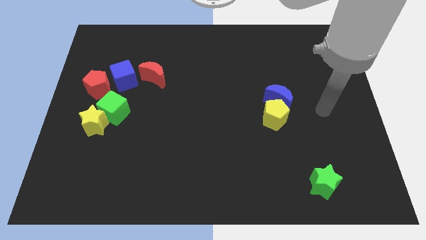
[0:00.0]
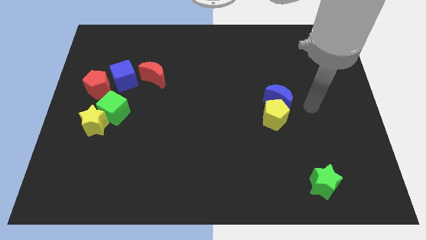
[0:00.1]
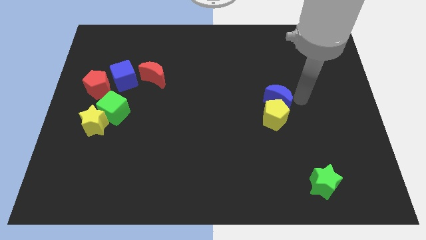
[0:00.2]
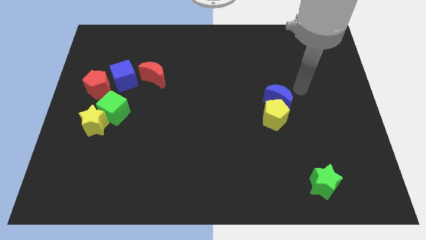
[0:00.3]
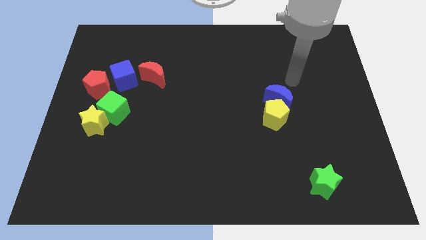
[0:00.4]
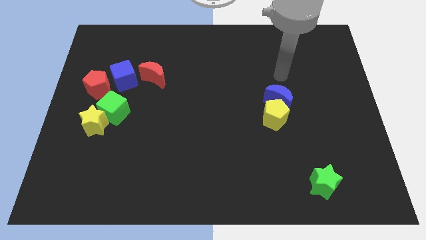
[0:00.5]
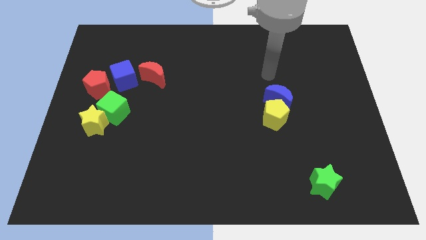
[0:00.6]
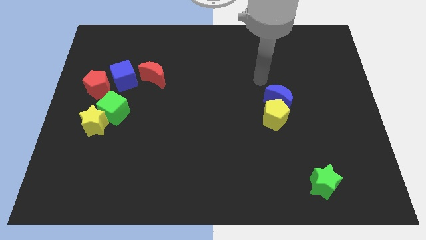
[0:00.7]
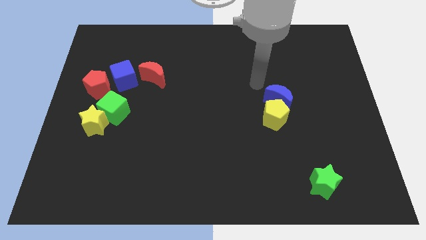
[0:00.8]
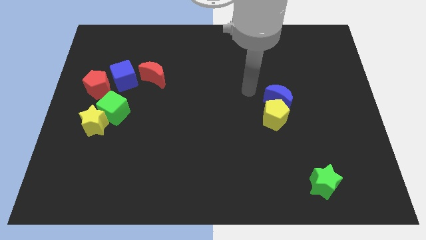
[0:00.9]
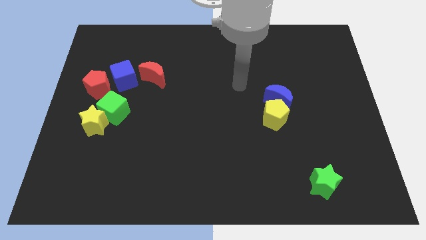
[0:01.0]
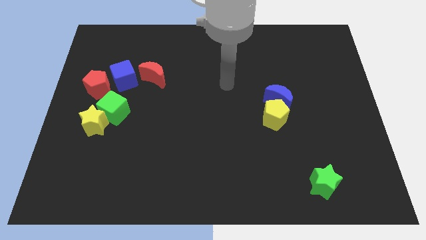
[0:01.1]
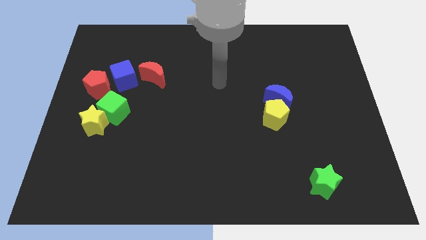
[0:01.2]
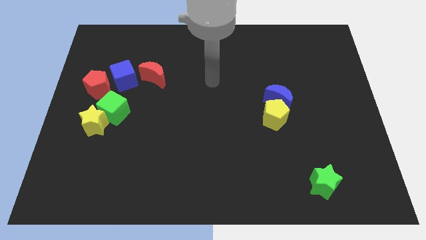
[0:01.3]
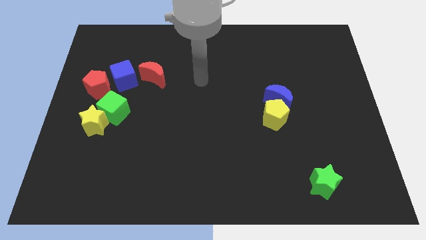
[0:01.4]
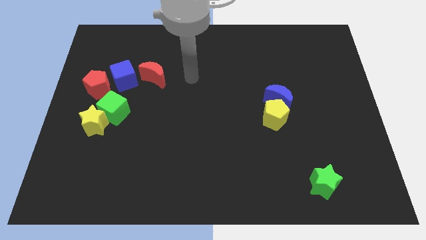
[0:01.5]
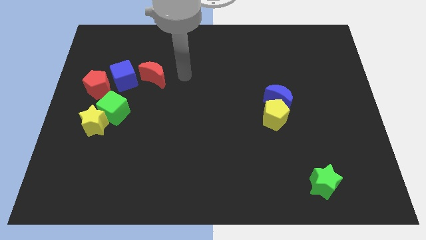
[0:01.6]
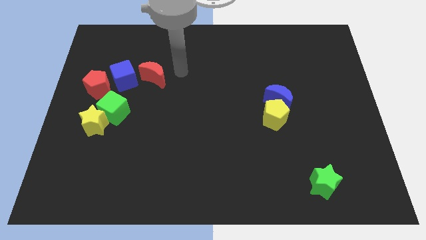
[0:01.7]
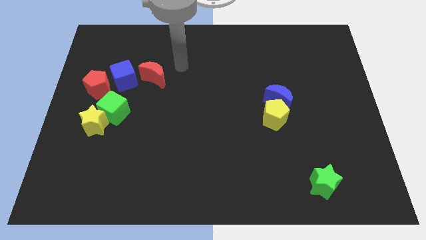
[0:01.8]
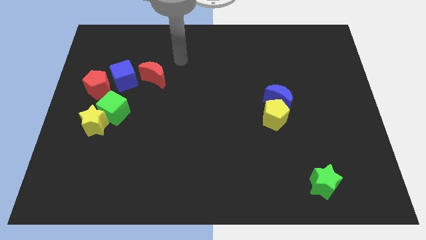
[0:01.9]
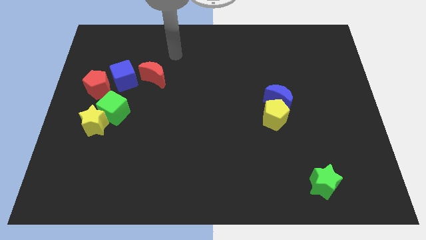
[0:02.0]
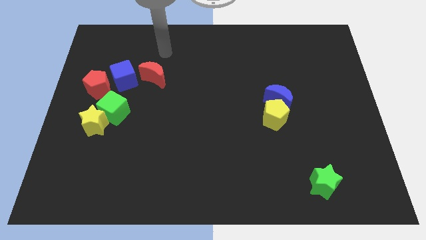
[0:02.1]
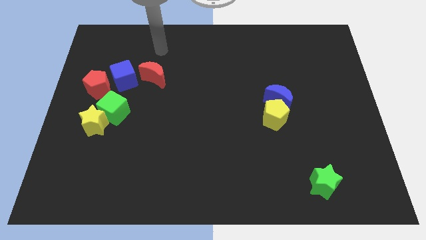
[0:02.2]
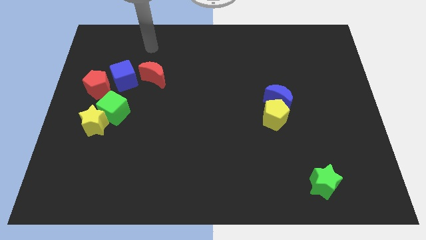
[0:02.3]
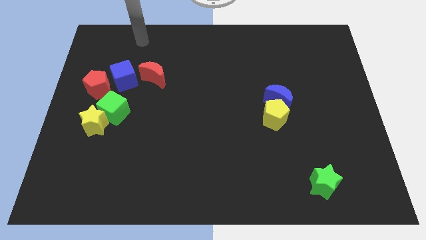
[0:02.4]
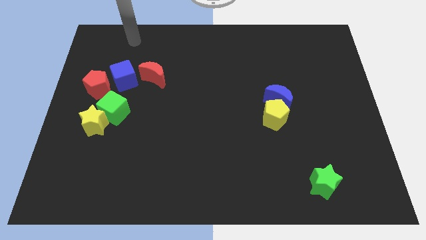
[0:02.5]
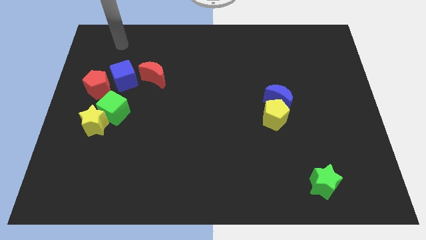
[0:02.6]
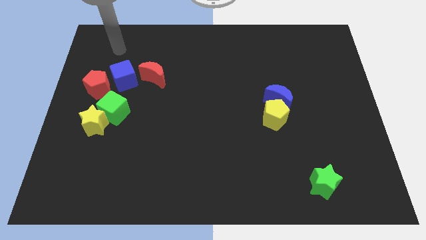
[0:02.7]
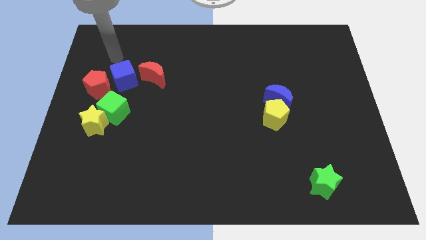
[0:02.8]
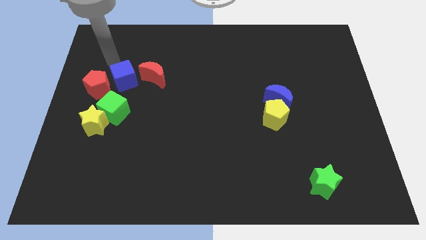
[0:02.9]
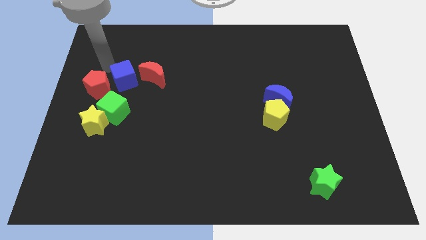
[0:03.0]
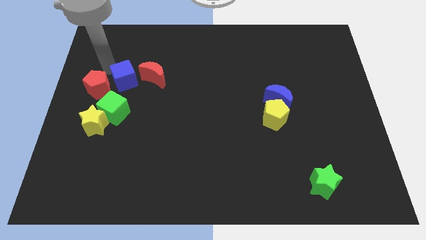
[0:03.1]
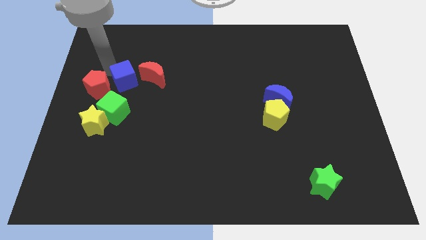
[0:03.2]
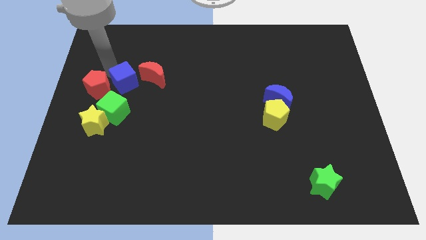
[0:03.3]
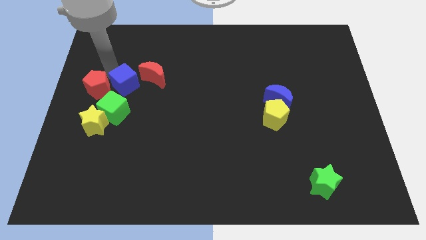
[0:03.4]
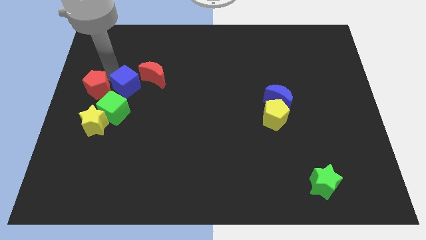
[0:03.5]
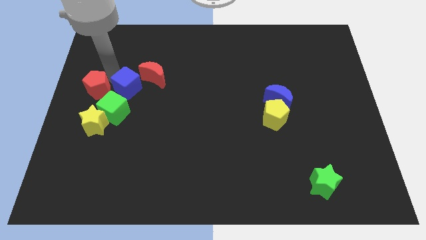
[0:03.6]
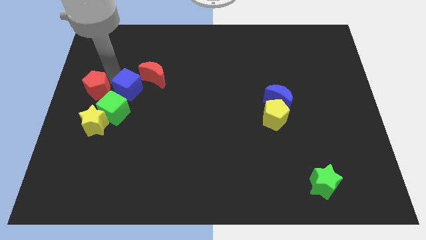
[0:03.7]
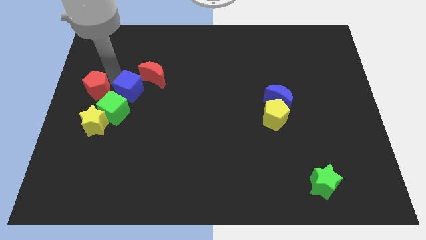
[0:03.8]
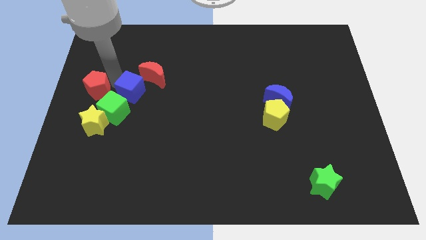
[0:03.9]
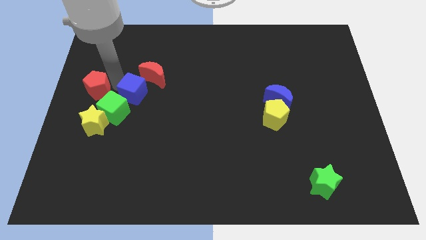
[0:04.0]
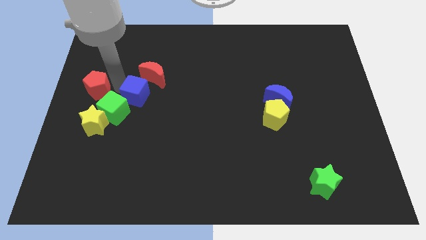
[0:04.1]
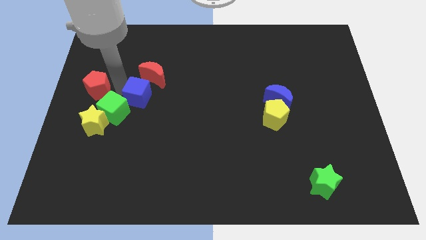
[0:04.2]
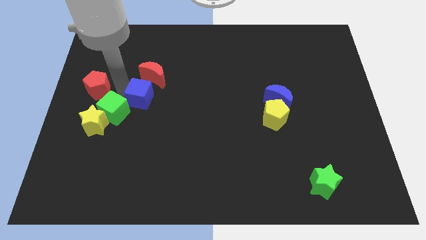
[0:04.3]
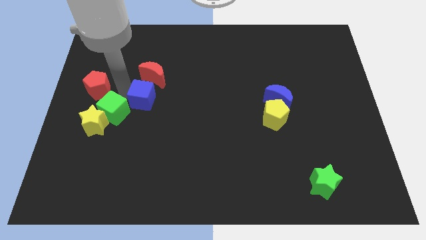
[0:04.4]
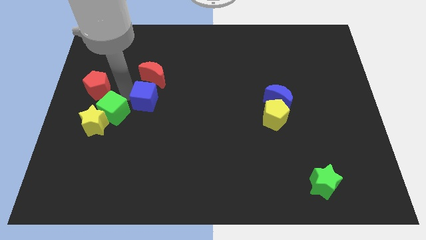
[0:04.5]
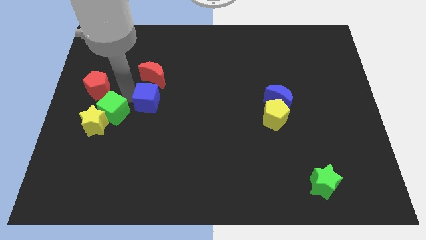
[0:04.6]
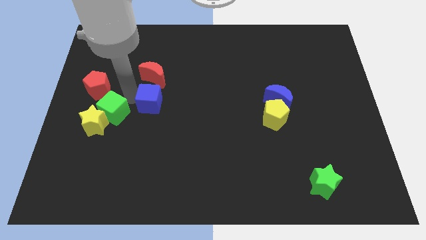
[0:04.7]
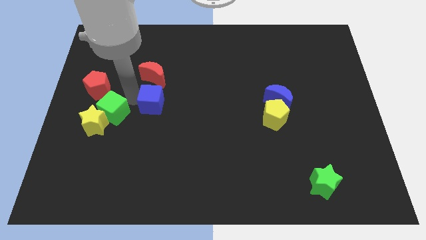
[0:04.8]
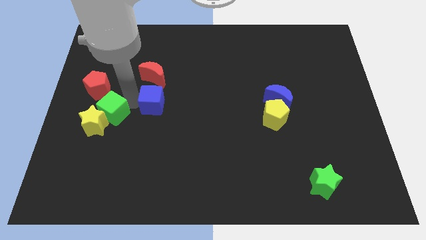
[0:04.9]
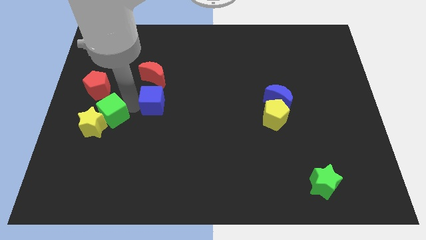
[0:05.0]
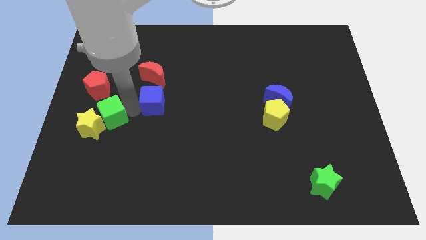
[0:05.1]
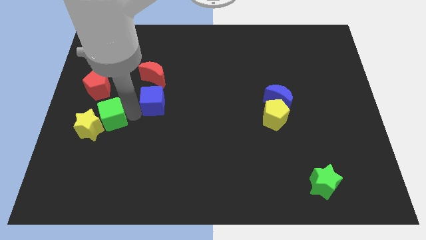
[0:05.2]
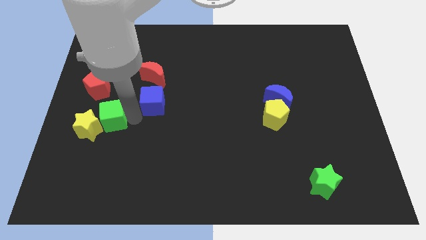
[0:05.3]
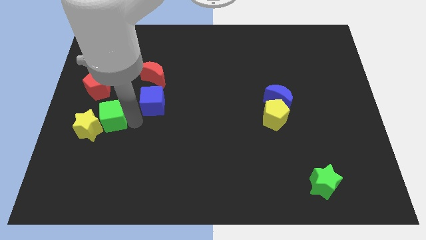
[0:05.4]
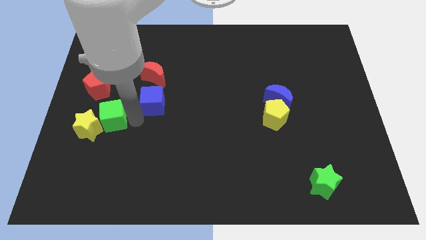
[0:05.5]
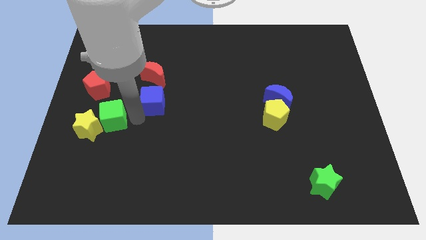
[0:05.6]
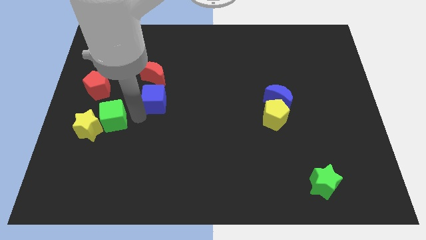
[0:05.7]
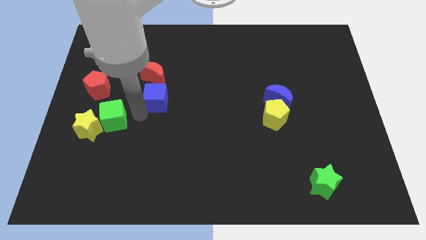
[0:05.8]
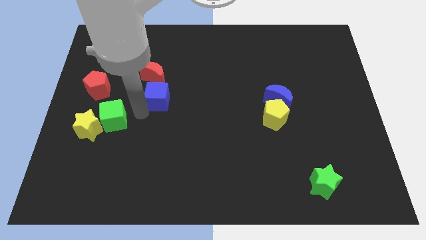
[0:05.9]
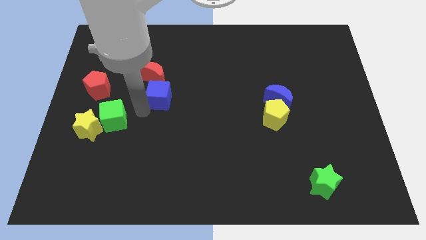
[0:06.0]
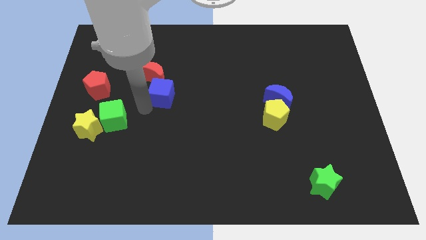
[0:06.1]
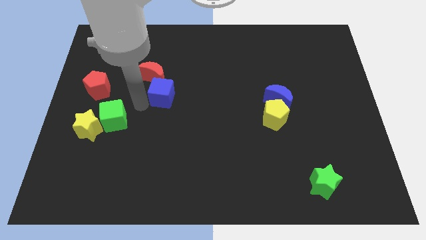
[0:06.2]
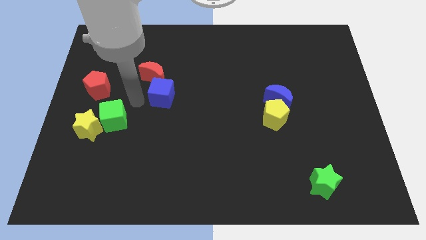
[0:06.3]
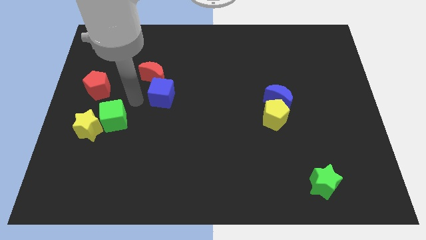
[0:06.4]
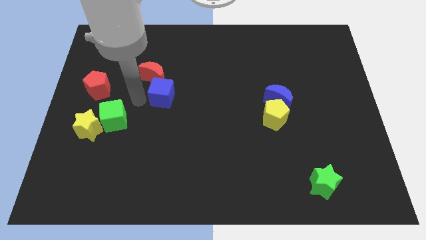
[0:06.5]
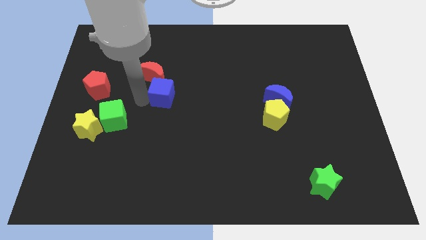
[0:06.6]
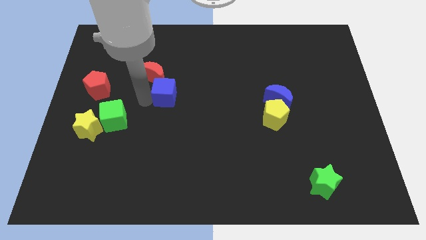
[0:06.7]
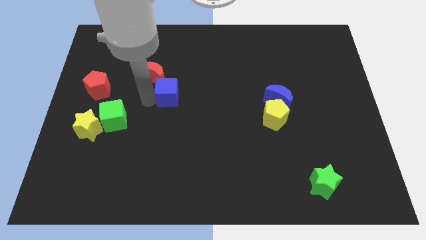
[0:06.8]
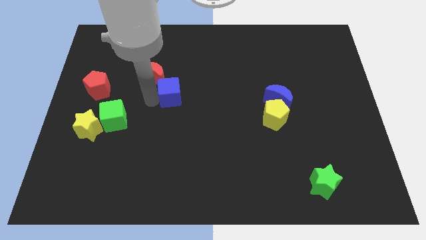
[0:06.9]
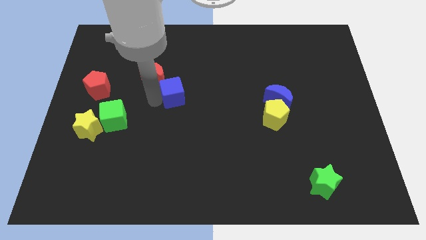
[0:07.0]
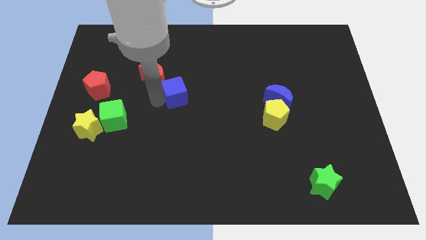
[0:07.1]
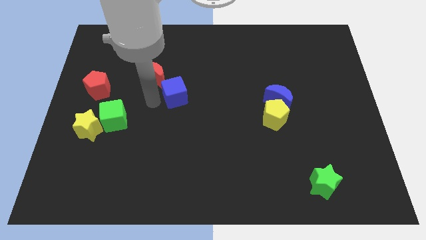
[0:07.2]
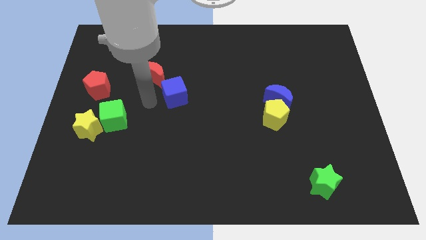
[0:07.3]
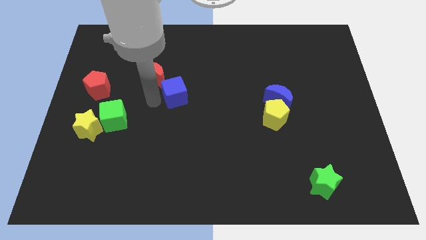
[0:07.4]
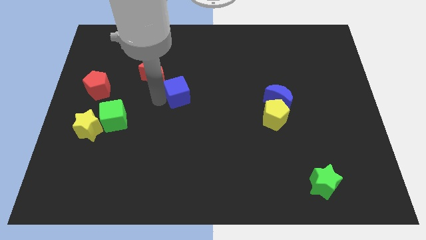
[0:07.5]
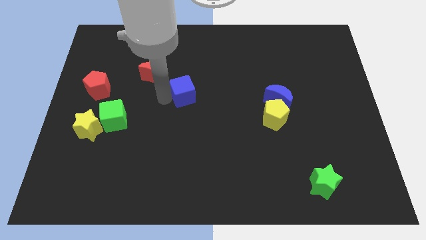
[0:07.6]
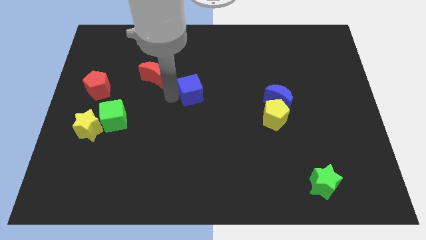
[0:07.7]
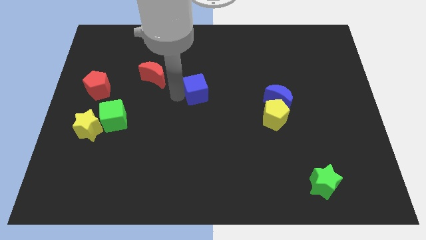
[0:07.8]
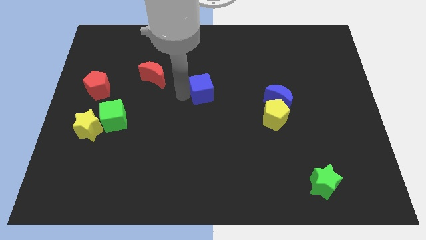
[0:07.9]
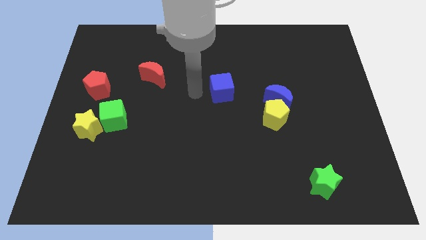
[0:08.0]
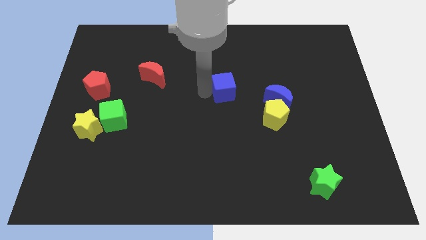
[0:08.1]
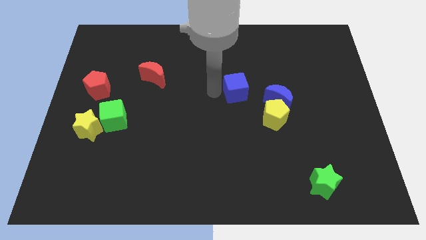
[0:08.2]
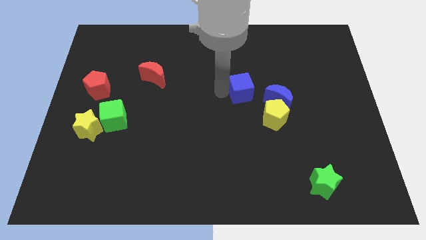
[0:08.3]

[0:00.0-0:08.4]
slide the blue cube to the top left side of the blue moon
